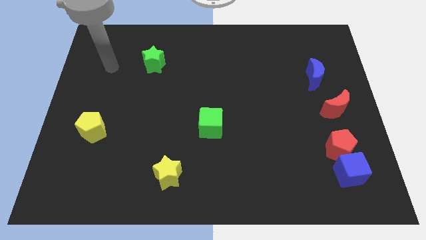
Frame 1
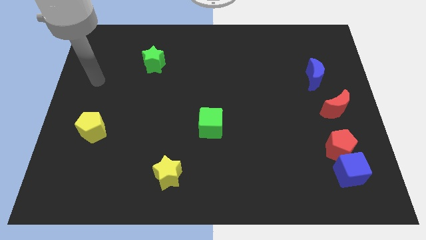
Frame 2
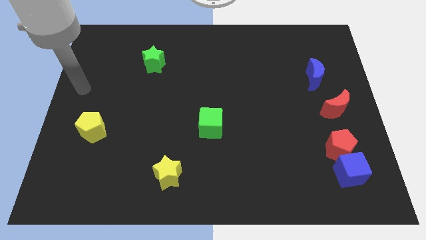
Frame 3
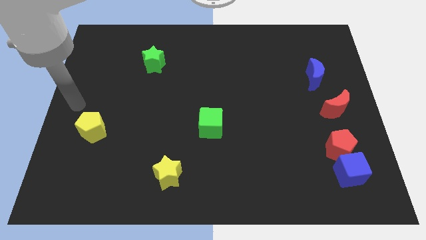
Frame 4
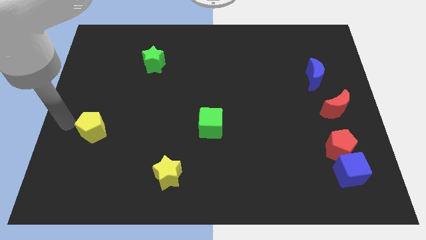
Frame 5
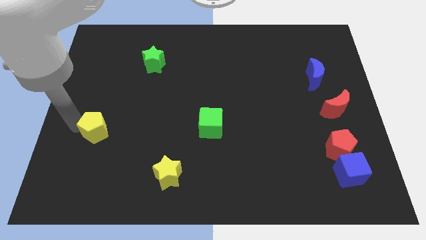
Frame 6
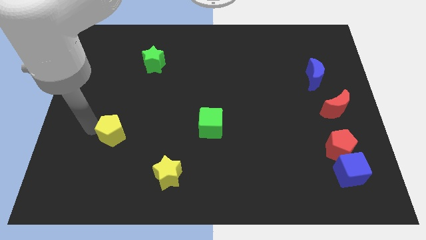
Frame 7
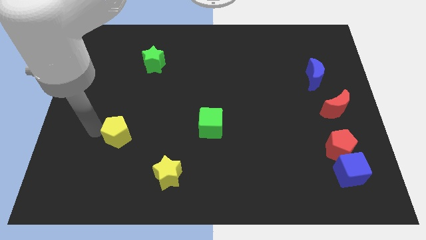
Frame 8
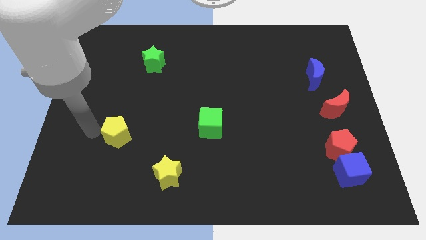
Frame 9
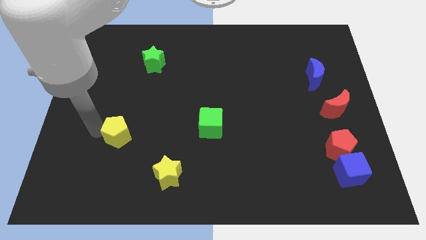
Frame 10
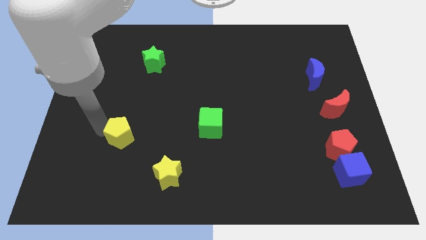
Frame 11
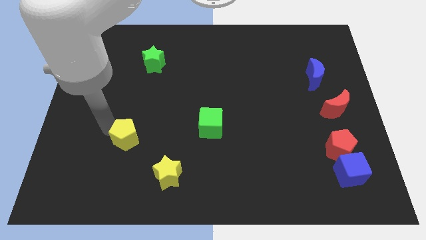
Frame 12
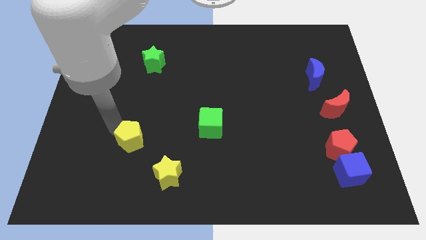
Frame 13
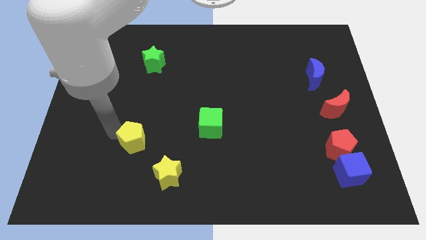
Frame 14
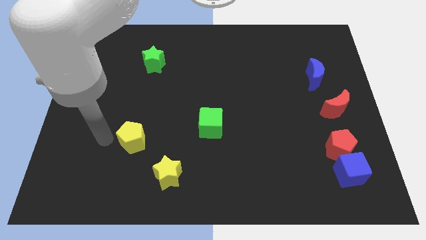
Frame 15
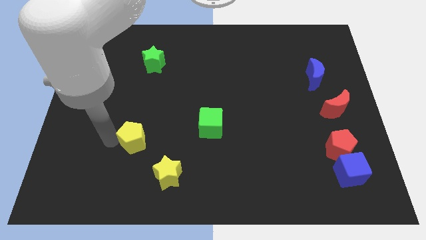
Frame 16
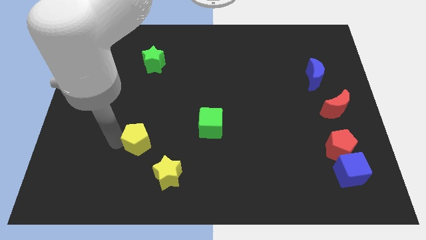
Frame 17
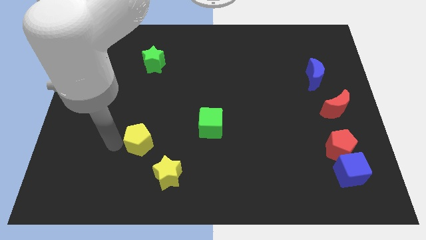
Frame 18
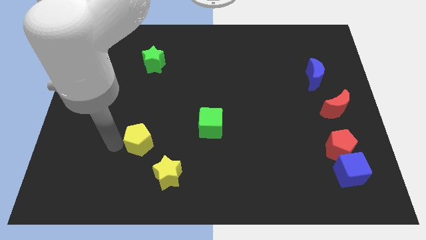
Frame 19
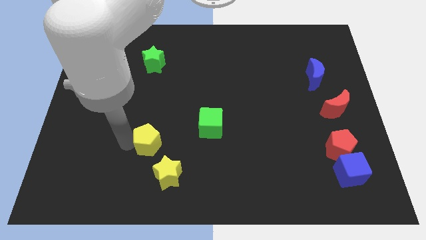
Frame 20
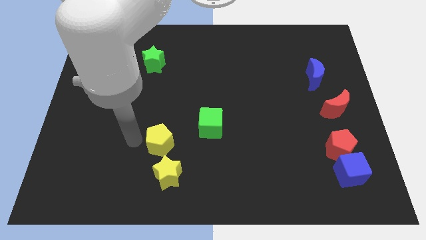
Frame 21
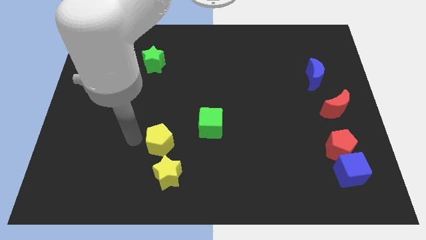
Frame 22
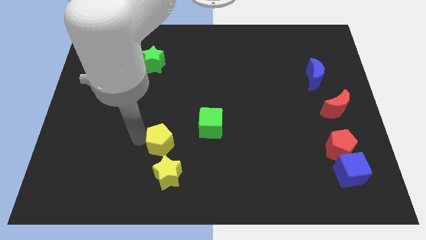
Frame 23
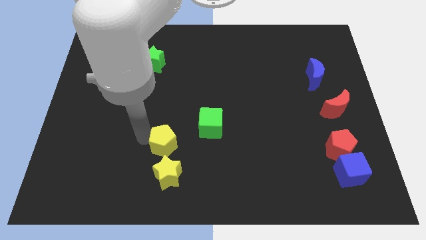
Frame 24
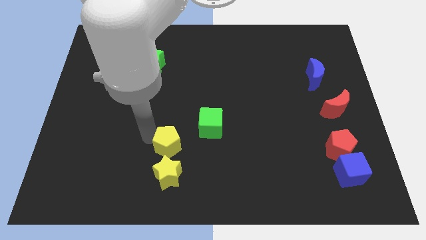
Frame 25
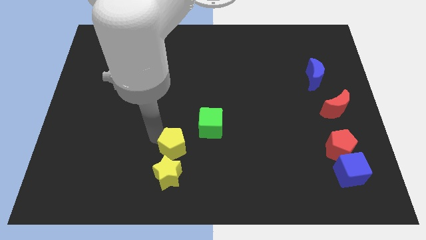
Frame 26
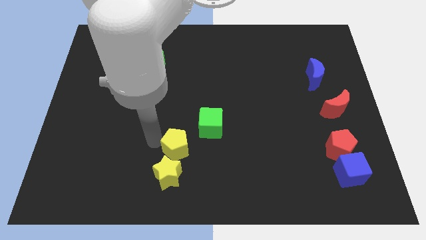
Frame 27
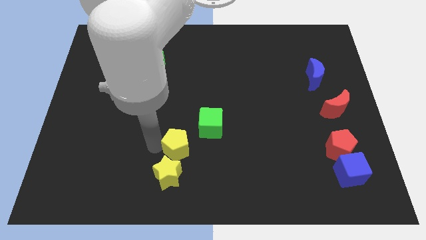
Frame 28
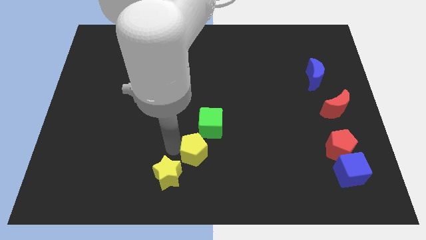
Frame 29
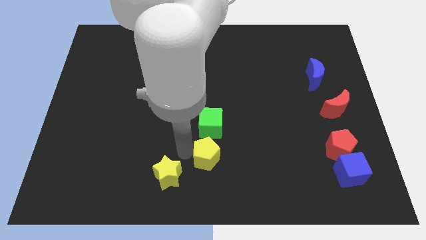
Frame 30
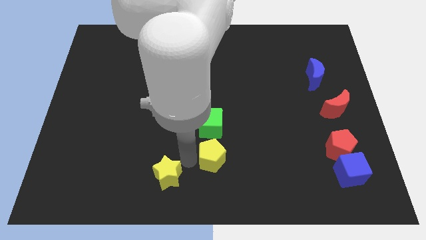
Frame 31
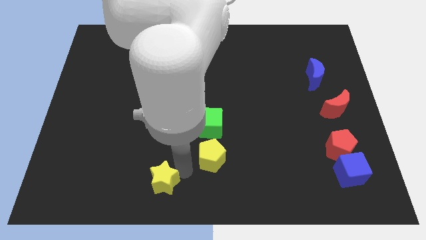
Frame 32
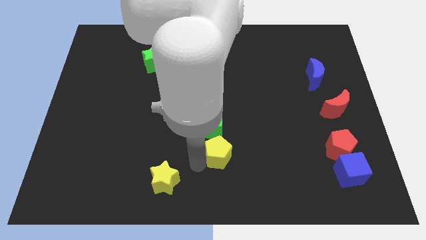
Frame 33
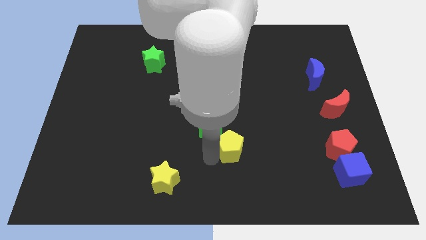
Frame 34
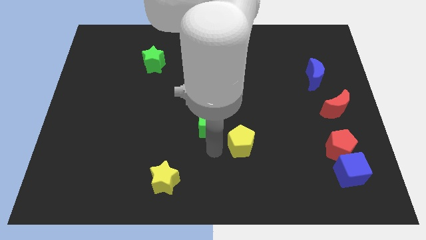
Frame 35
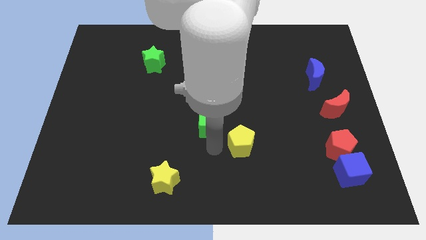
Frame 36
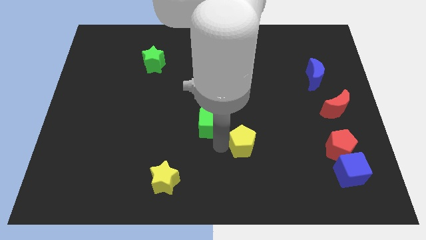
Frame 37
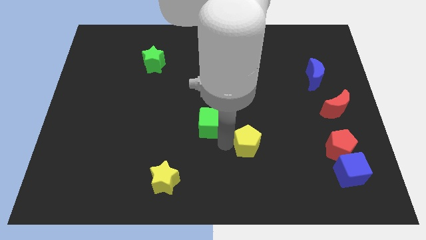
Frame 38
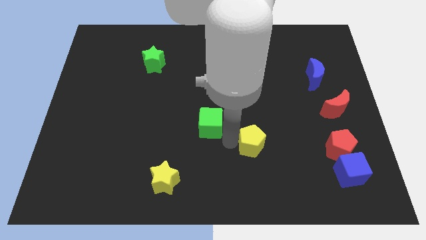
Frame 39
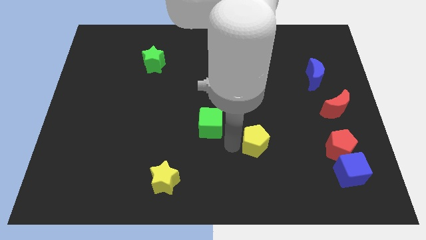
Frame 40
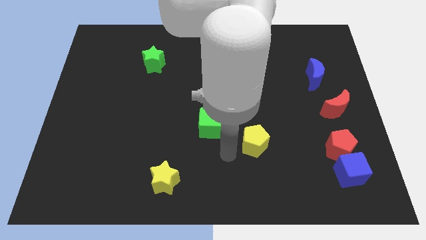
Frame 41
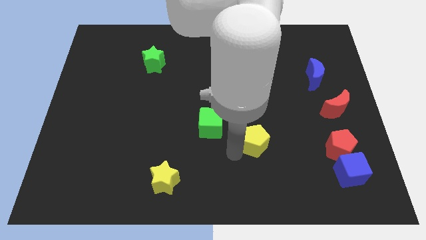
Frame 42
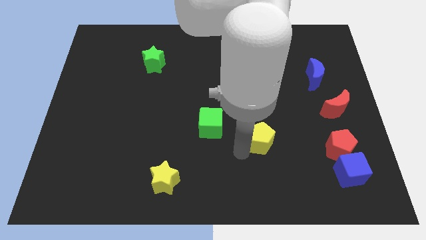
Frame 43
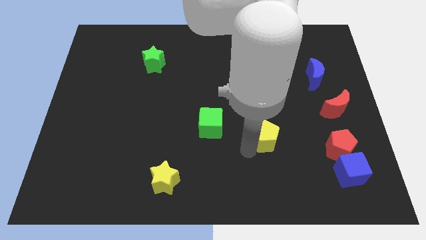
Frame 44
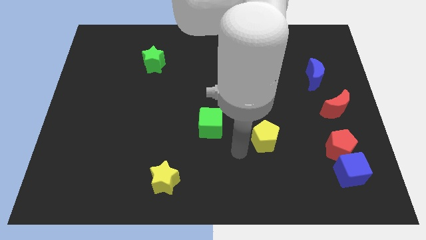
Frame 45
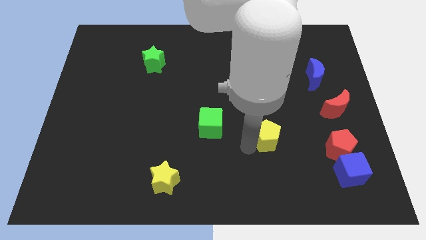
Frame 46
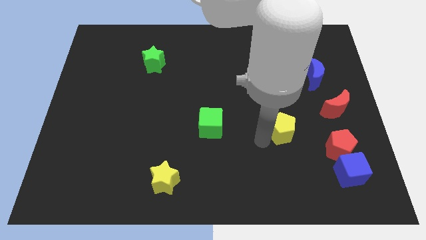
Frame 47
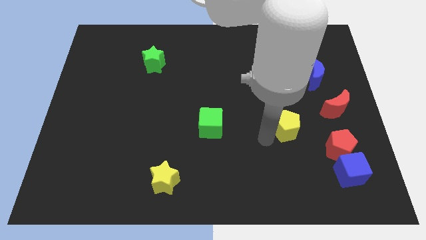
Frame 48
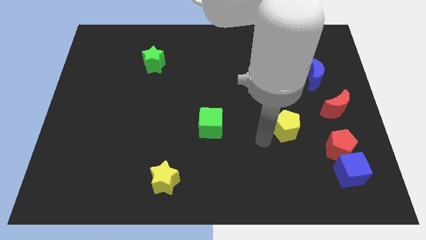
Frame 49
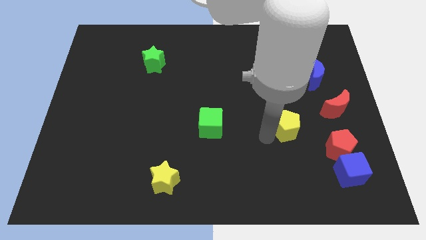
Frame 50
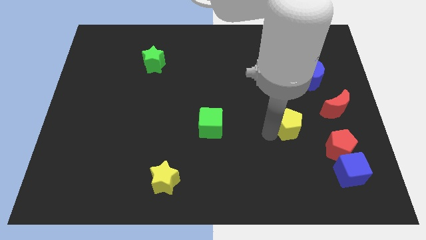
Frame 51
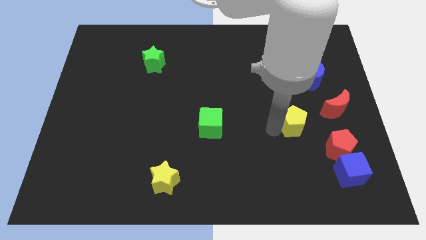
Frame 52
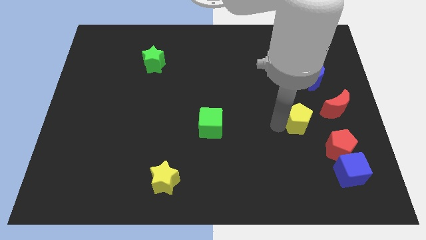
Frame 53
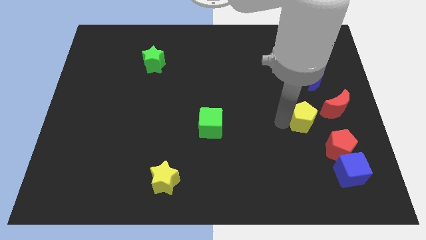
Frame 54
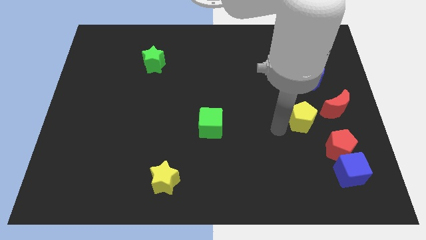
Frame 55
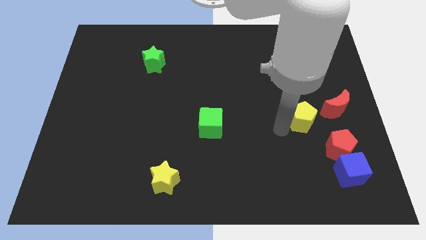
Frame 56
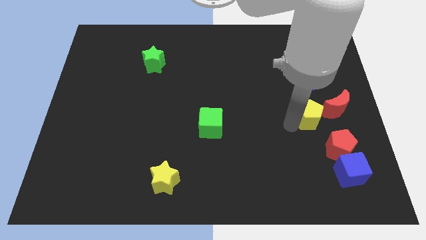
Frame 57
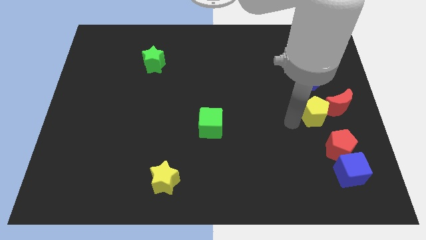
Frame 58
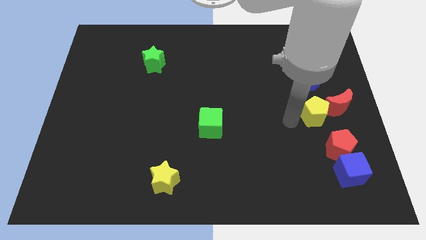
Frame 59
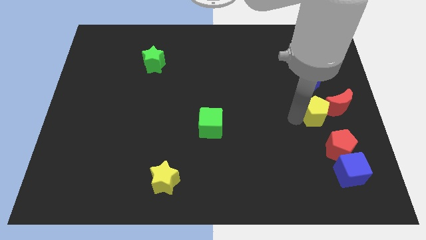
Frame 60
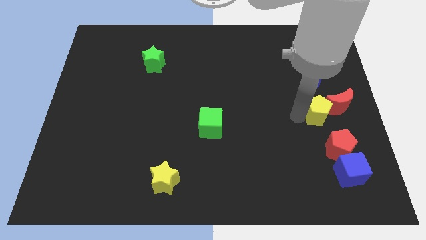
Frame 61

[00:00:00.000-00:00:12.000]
put the yellow pentagon towards the red moon

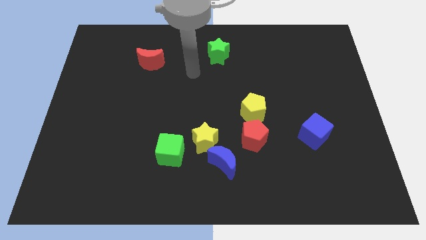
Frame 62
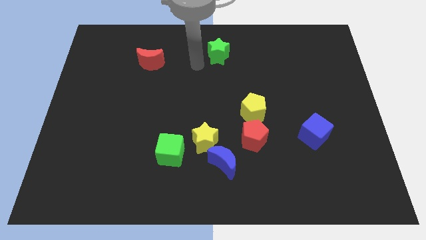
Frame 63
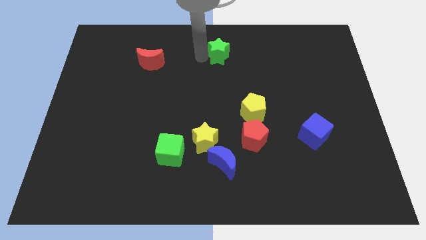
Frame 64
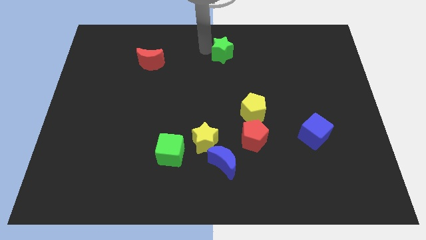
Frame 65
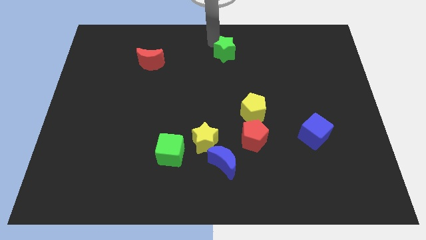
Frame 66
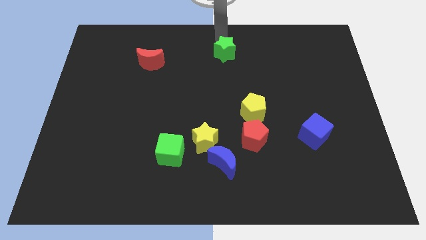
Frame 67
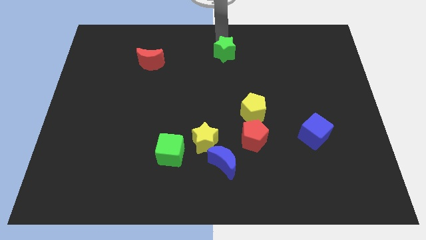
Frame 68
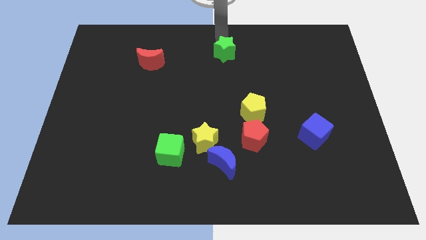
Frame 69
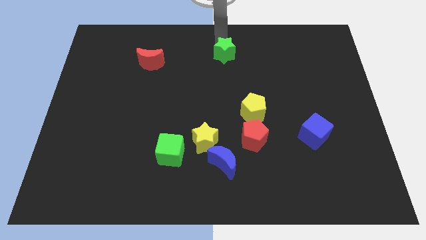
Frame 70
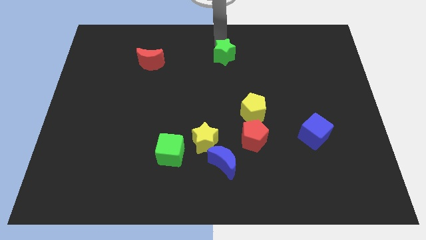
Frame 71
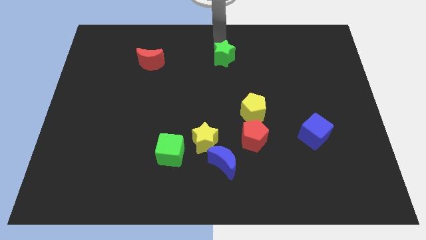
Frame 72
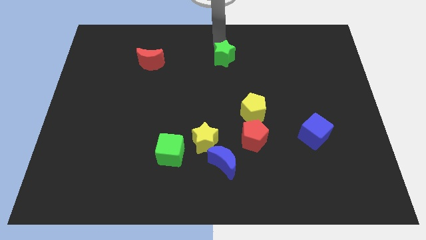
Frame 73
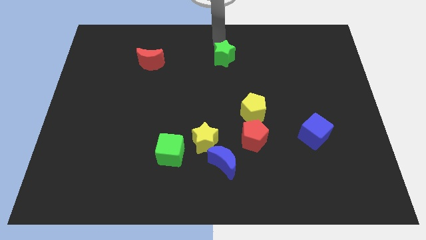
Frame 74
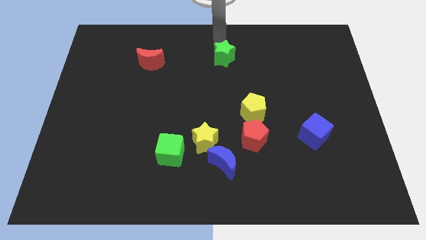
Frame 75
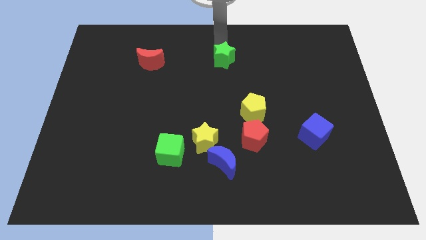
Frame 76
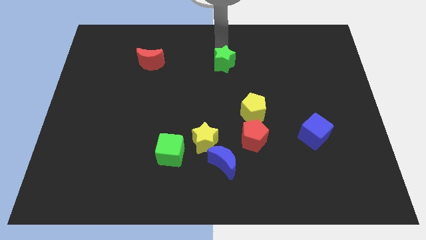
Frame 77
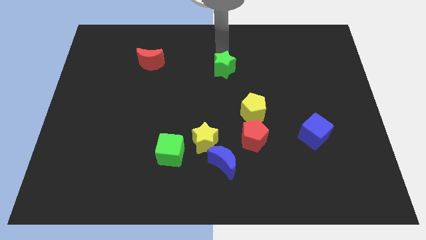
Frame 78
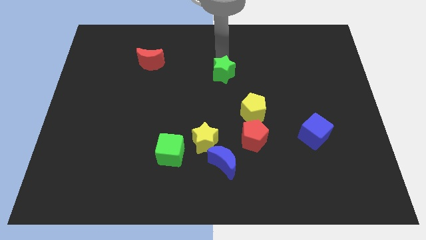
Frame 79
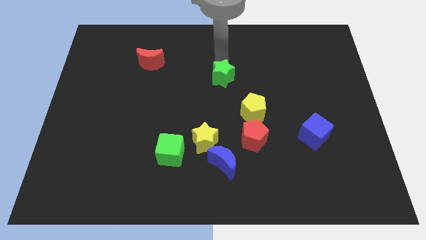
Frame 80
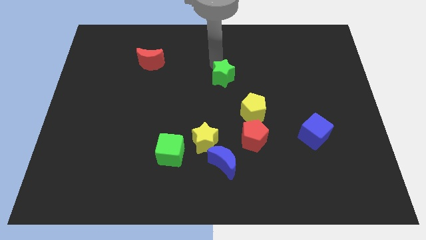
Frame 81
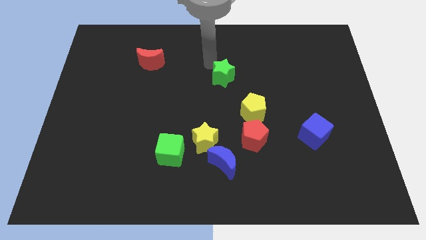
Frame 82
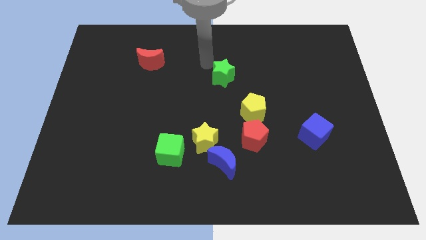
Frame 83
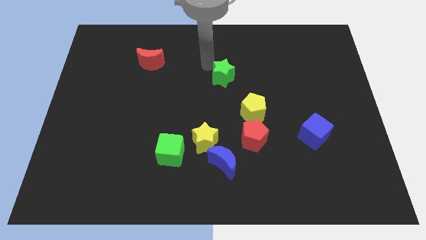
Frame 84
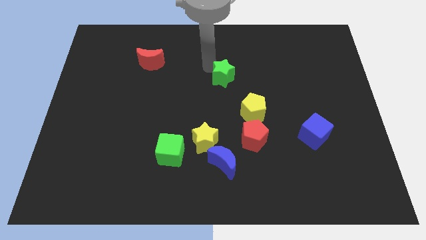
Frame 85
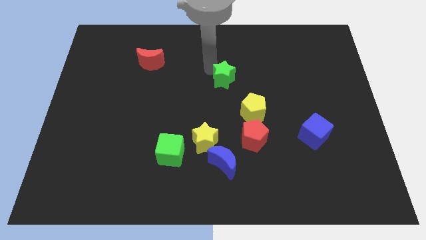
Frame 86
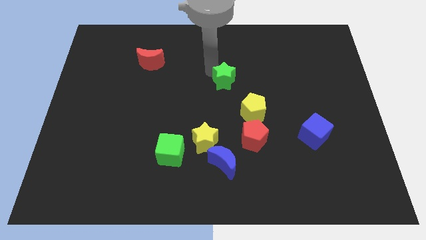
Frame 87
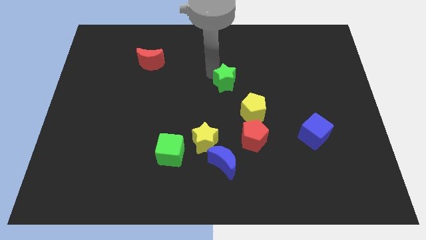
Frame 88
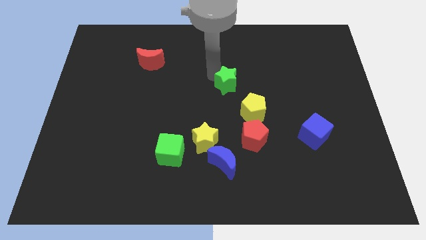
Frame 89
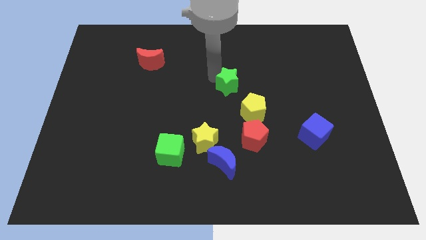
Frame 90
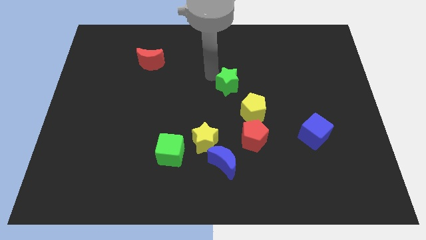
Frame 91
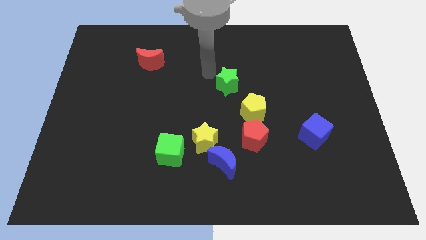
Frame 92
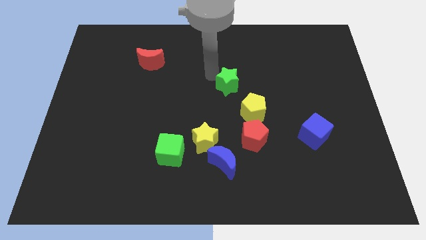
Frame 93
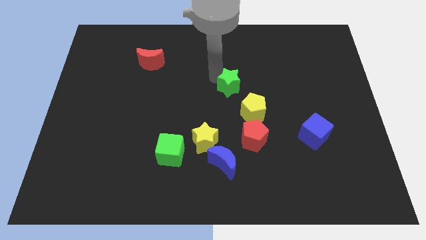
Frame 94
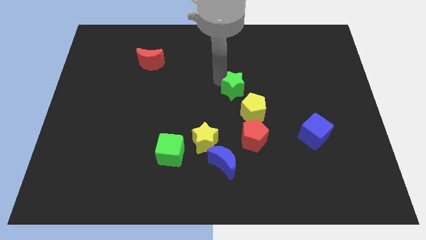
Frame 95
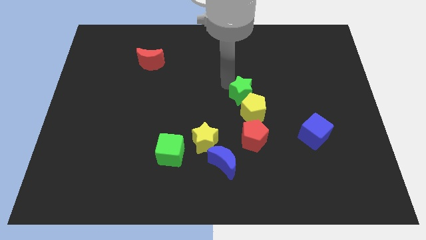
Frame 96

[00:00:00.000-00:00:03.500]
slide the green star towards the yellow pentagon
